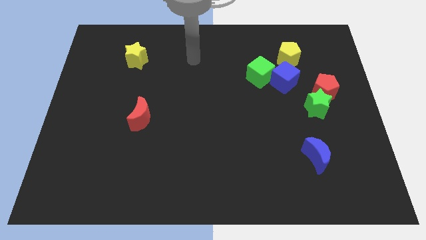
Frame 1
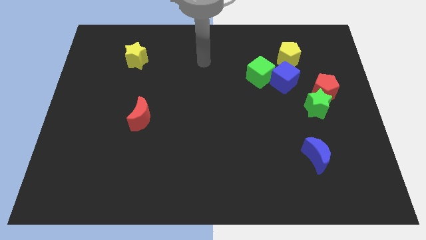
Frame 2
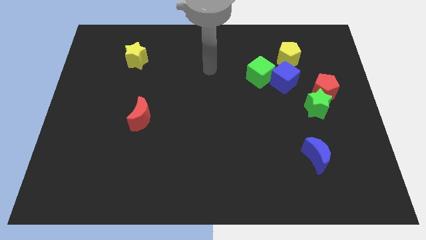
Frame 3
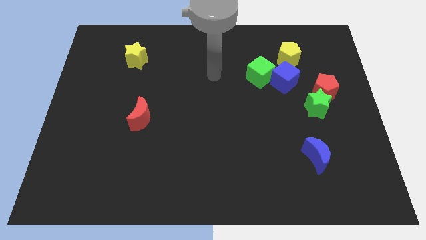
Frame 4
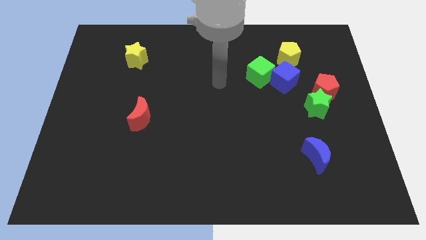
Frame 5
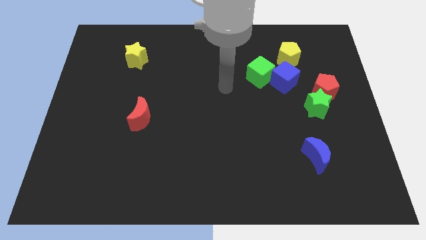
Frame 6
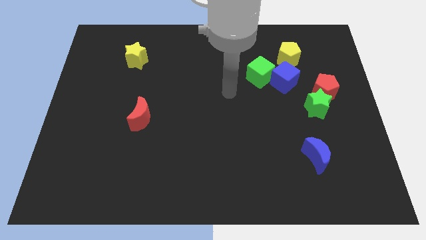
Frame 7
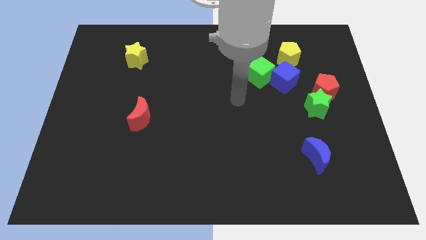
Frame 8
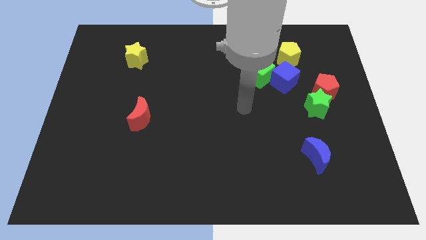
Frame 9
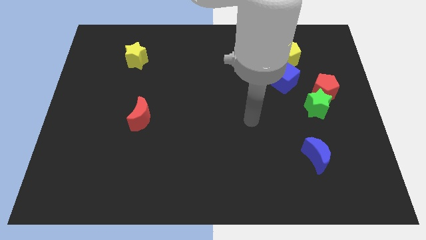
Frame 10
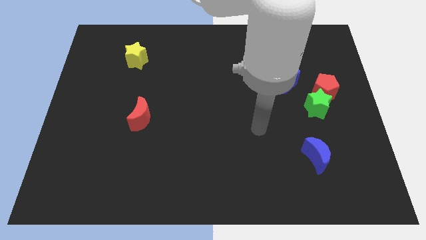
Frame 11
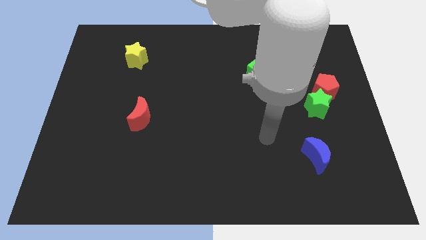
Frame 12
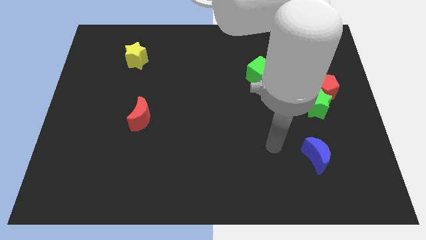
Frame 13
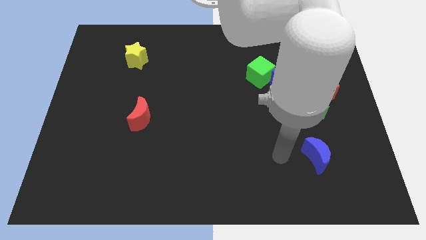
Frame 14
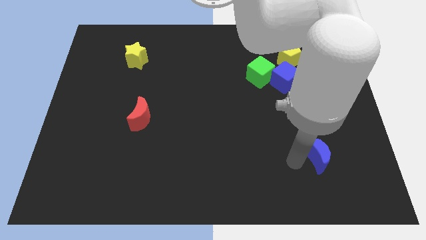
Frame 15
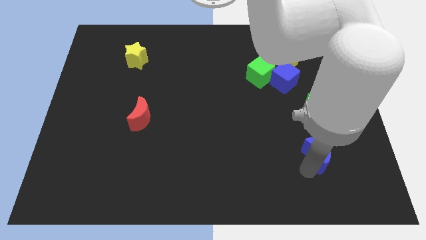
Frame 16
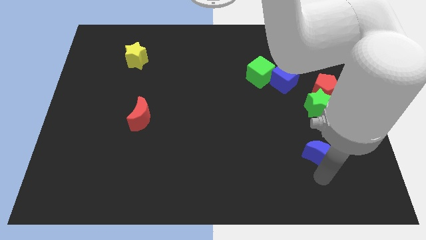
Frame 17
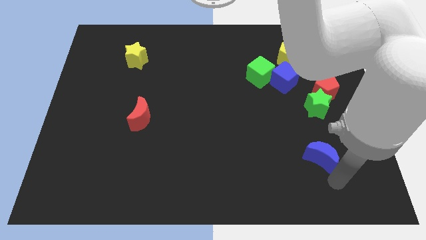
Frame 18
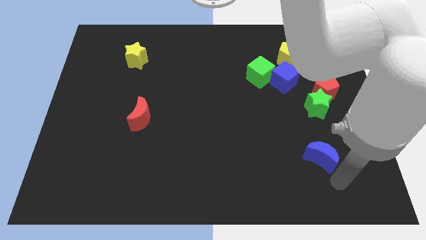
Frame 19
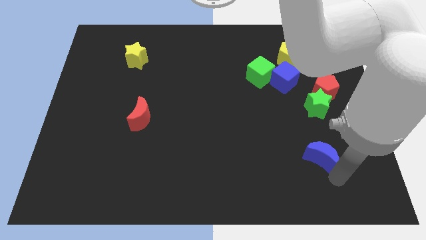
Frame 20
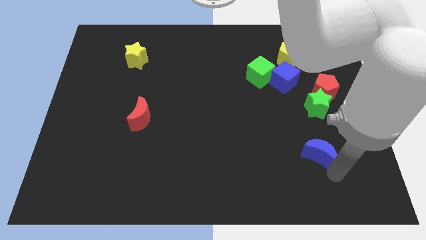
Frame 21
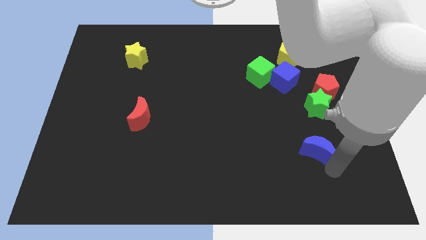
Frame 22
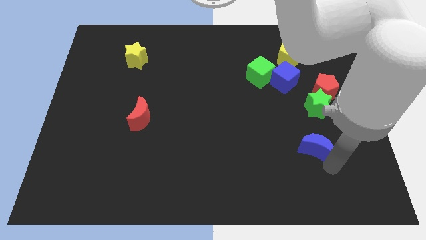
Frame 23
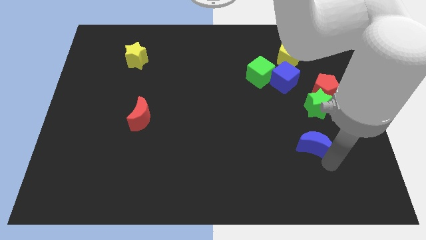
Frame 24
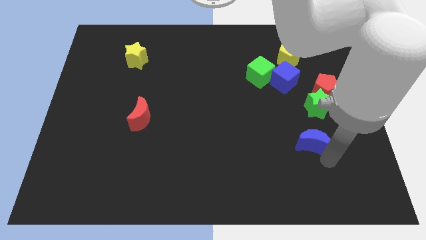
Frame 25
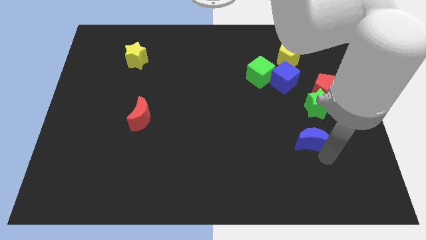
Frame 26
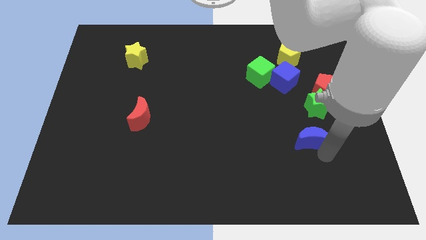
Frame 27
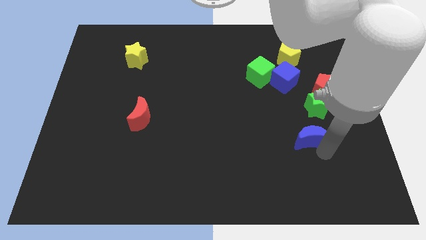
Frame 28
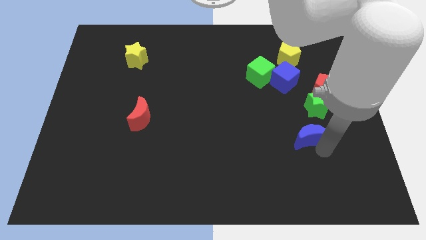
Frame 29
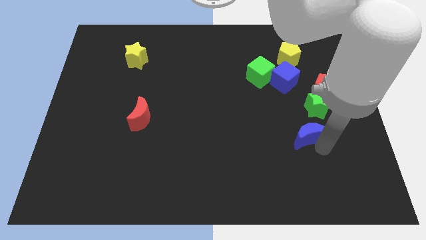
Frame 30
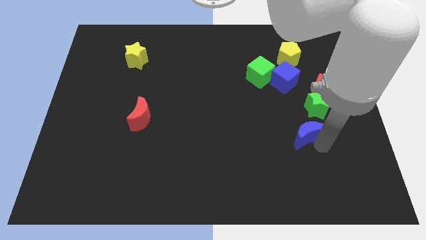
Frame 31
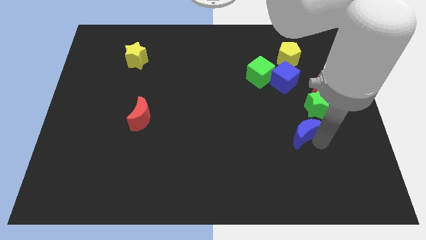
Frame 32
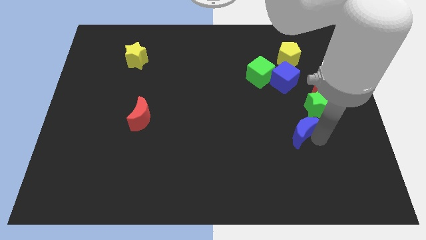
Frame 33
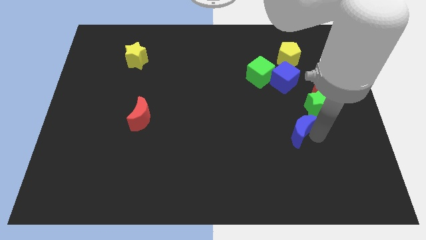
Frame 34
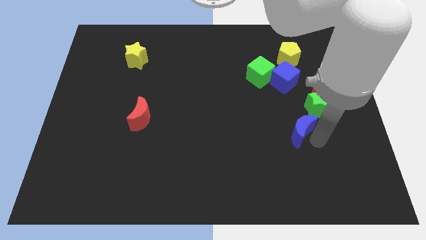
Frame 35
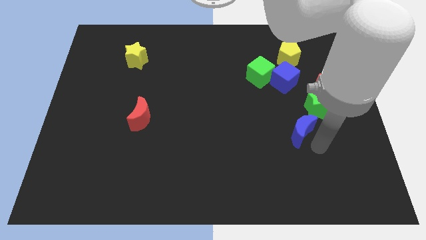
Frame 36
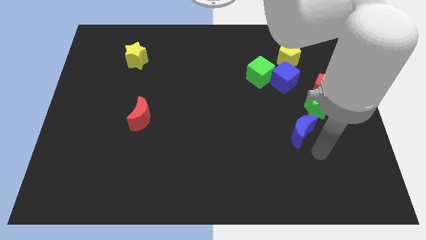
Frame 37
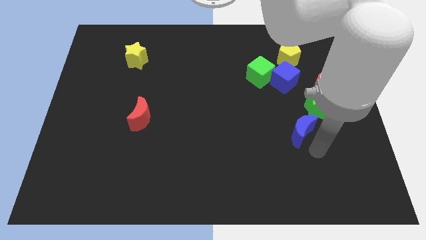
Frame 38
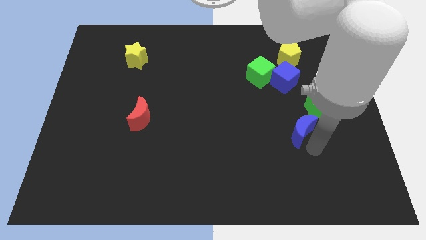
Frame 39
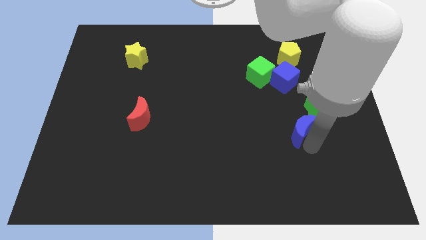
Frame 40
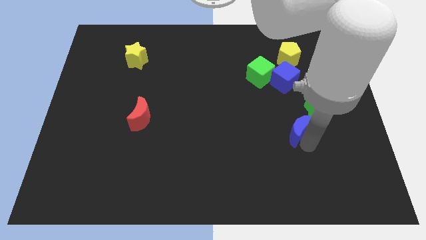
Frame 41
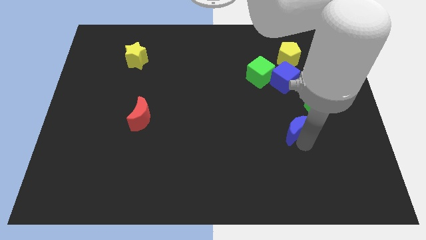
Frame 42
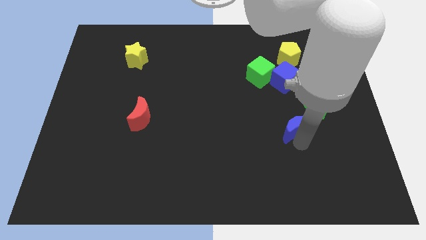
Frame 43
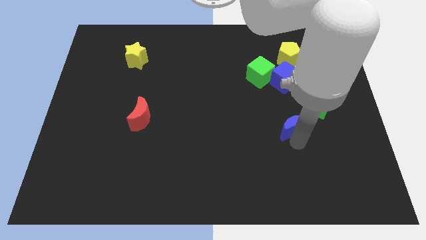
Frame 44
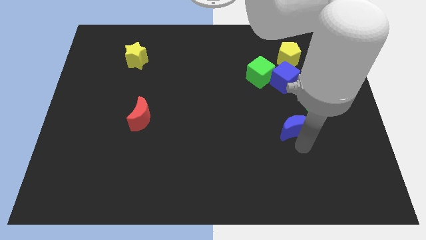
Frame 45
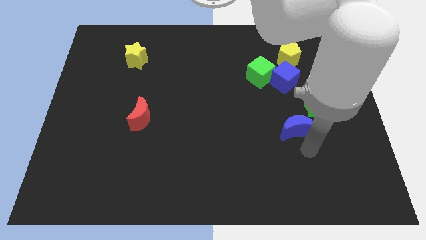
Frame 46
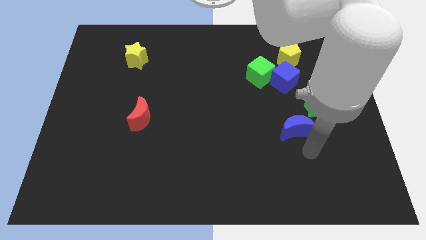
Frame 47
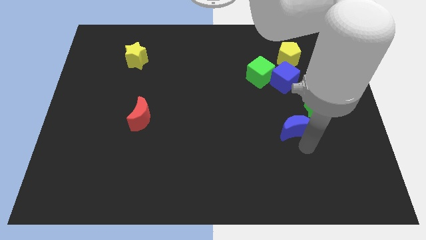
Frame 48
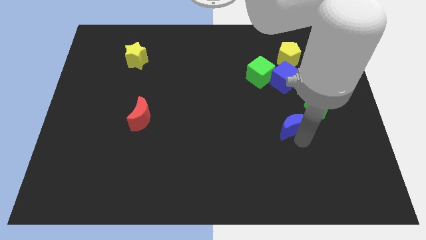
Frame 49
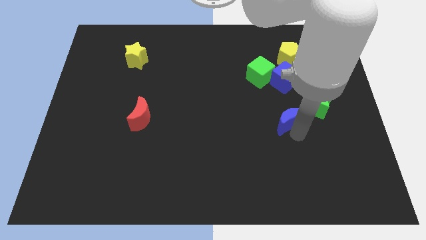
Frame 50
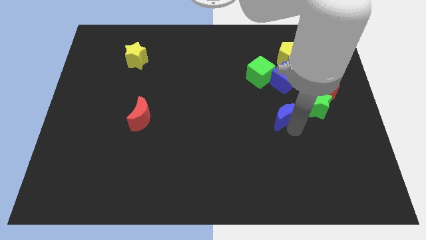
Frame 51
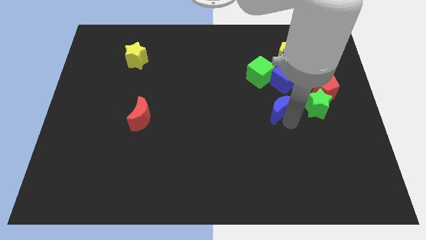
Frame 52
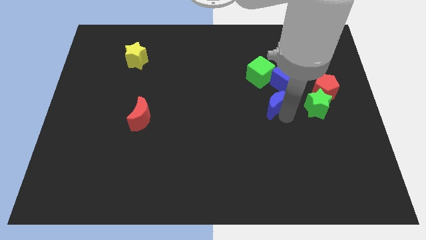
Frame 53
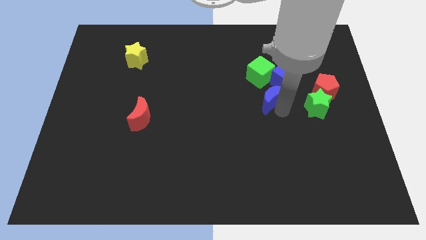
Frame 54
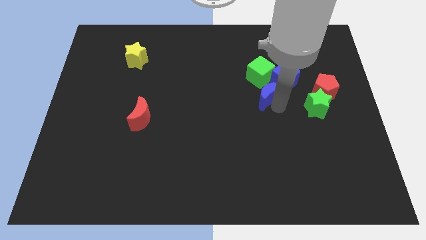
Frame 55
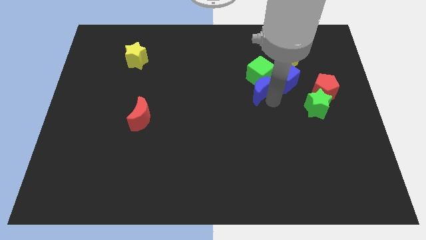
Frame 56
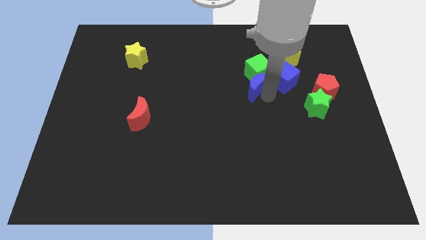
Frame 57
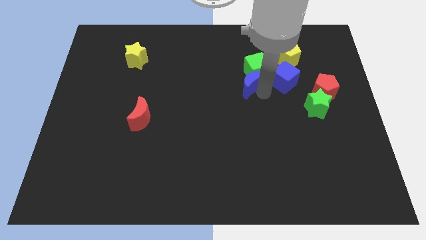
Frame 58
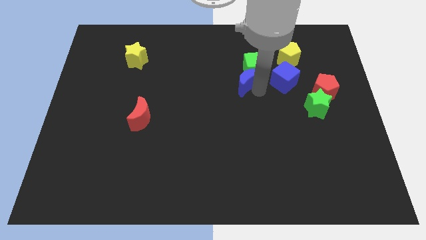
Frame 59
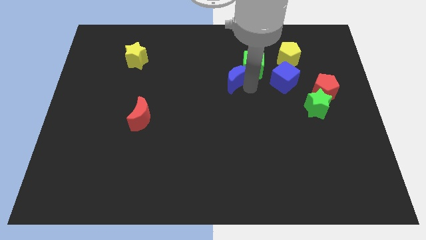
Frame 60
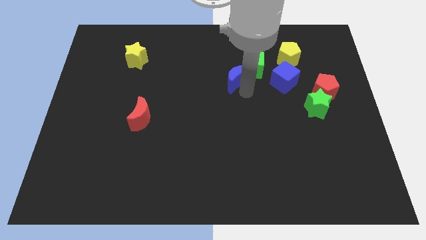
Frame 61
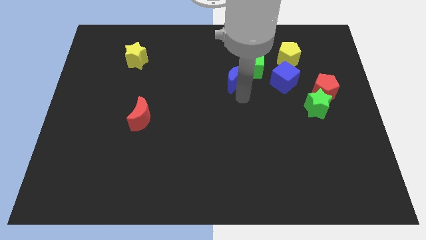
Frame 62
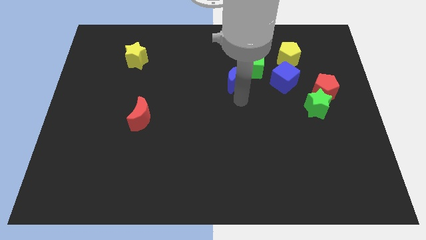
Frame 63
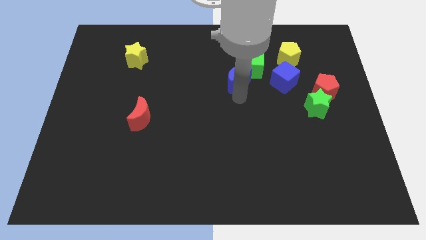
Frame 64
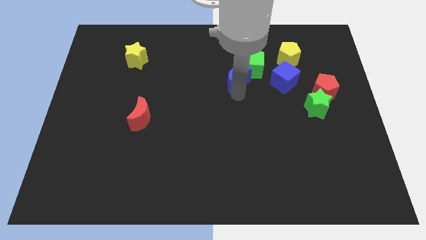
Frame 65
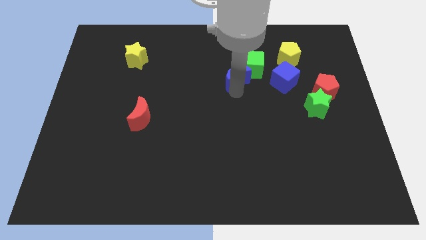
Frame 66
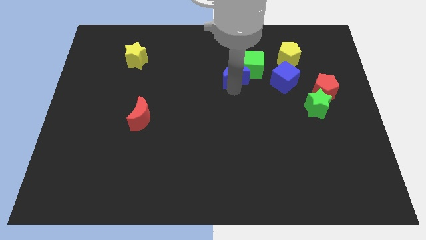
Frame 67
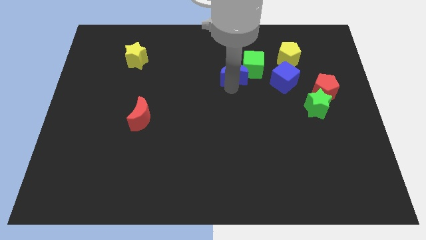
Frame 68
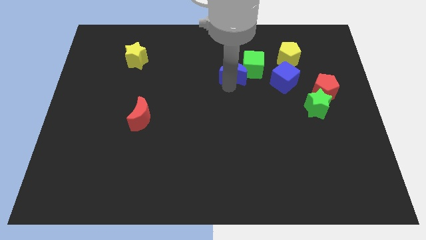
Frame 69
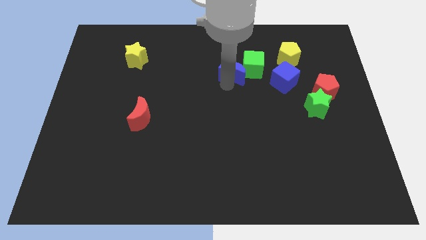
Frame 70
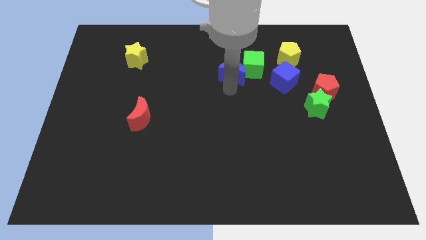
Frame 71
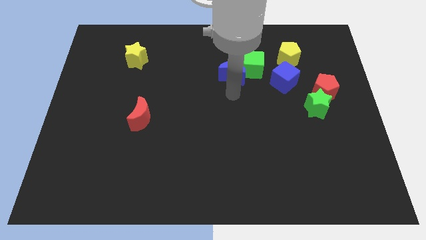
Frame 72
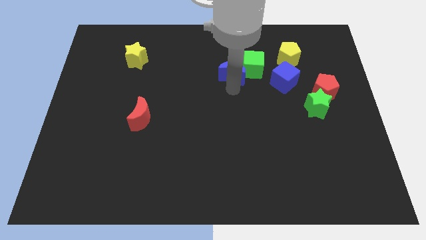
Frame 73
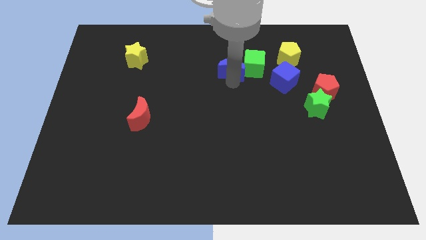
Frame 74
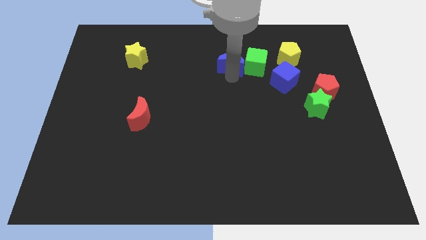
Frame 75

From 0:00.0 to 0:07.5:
put the blue moon diagonally up and to the left of the green cube
